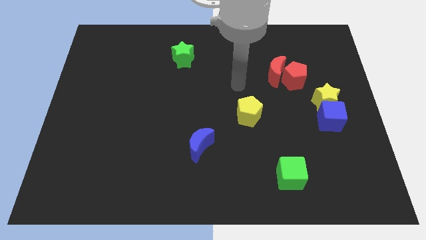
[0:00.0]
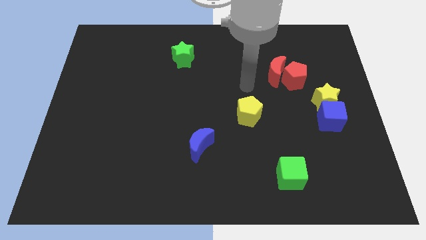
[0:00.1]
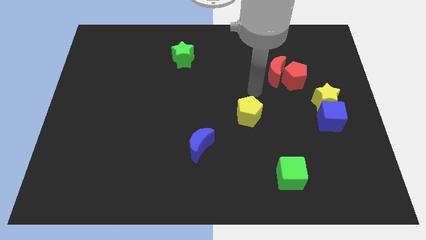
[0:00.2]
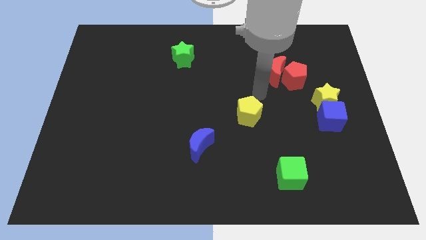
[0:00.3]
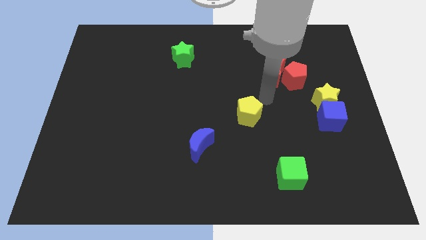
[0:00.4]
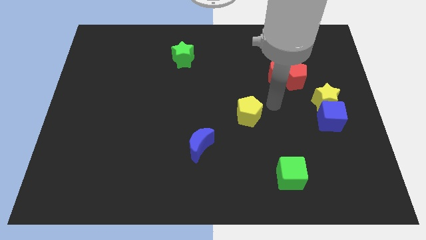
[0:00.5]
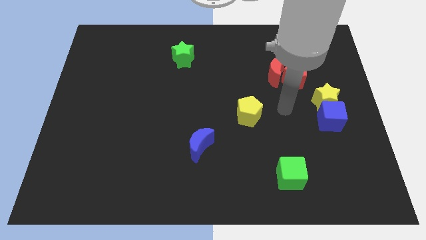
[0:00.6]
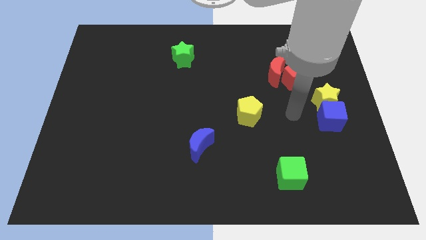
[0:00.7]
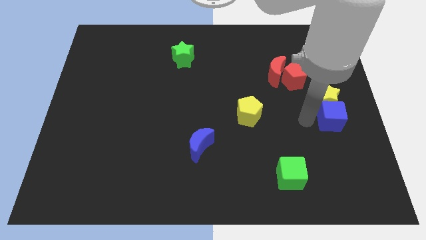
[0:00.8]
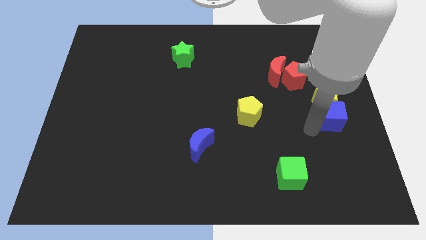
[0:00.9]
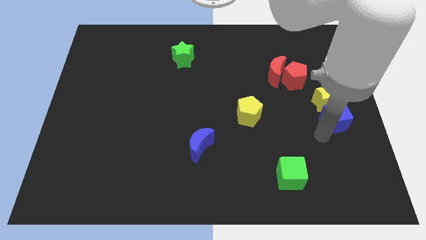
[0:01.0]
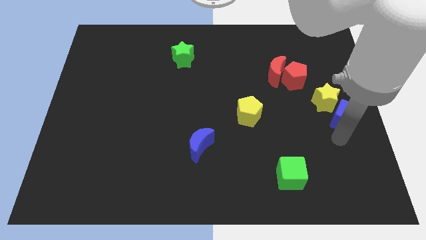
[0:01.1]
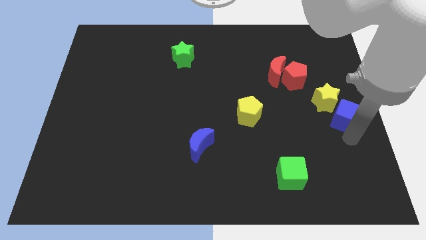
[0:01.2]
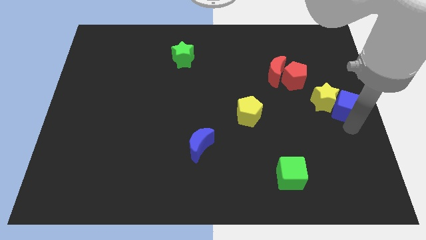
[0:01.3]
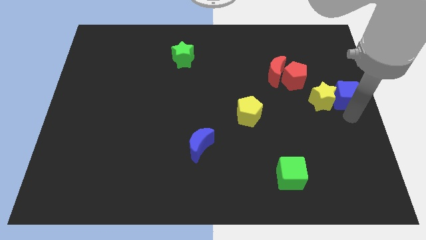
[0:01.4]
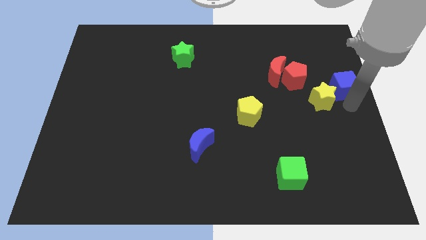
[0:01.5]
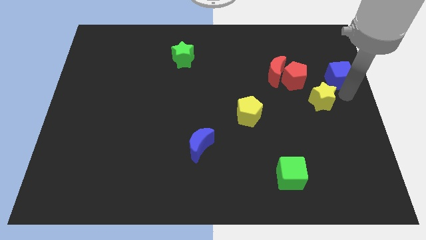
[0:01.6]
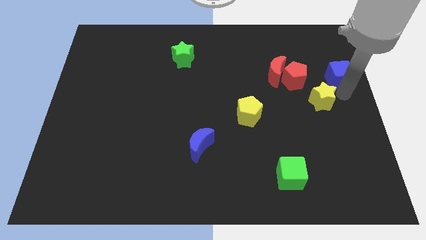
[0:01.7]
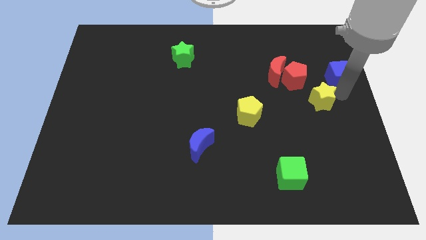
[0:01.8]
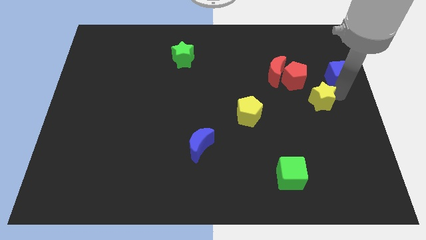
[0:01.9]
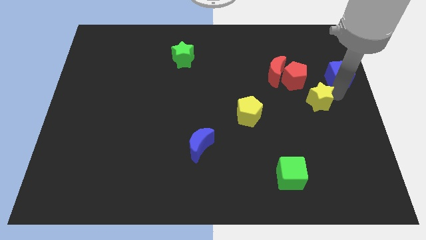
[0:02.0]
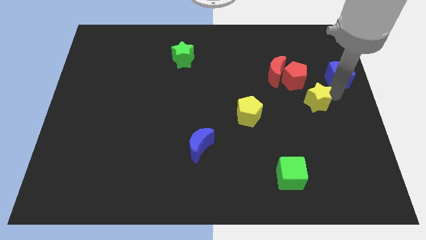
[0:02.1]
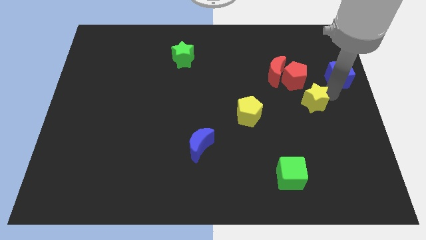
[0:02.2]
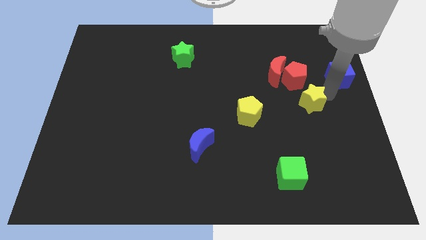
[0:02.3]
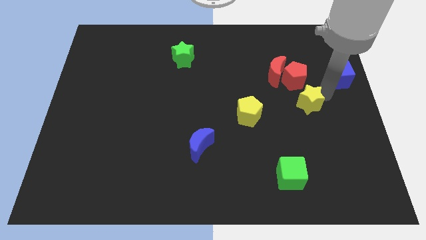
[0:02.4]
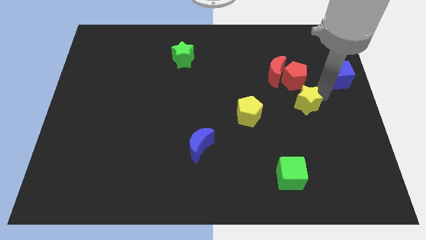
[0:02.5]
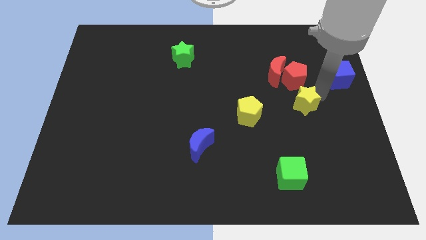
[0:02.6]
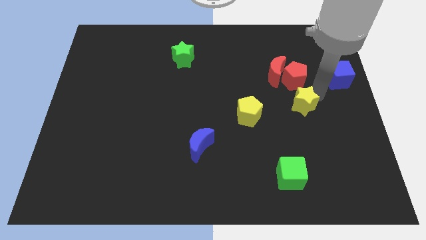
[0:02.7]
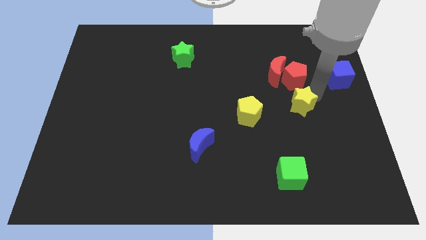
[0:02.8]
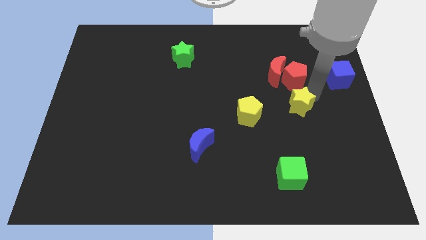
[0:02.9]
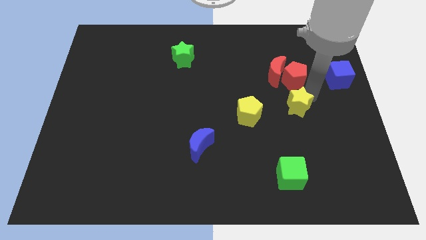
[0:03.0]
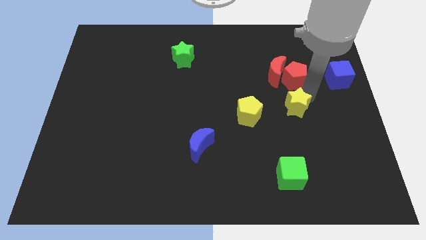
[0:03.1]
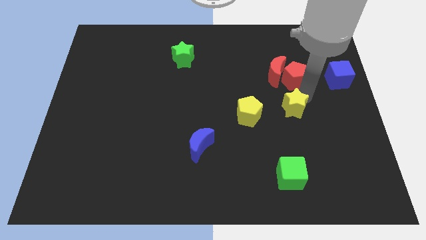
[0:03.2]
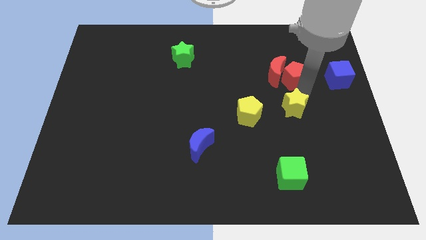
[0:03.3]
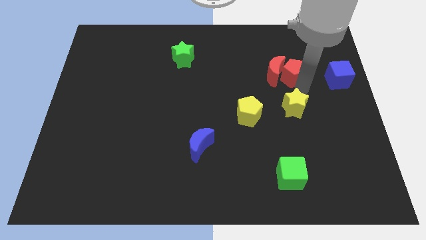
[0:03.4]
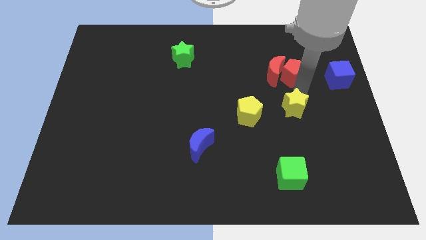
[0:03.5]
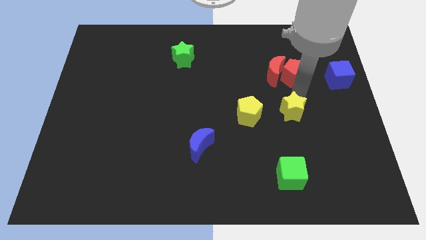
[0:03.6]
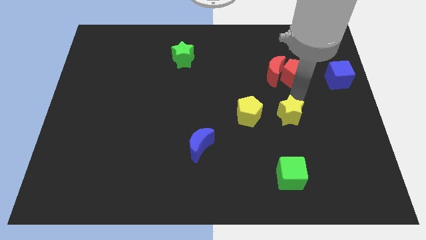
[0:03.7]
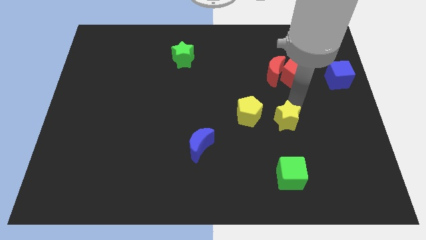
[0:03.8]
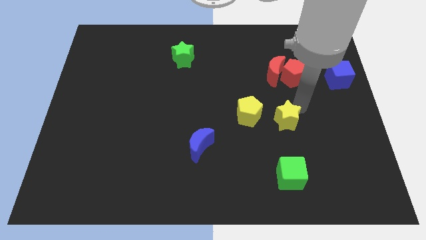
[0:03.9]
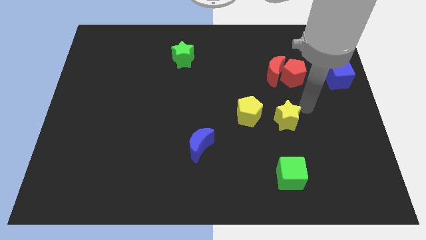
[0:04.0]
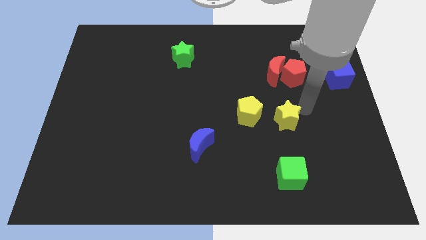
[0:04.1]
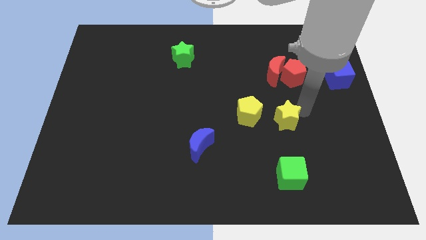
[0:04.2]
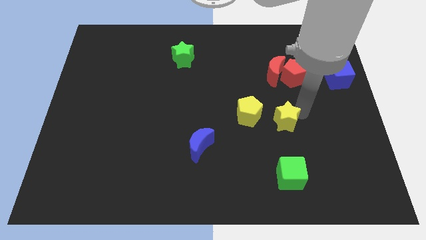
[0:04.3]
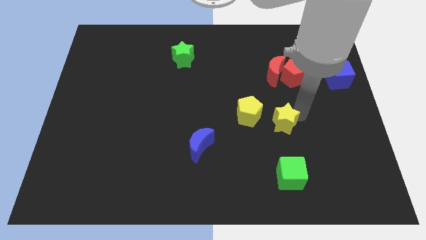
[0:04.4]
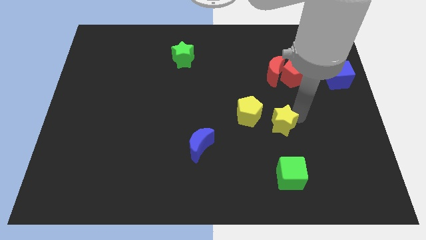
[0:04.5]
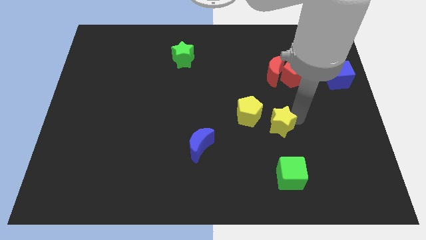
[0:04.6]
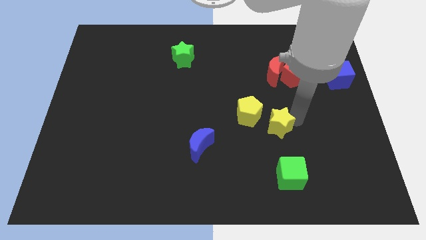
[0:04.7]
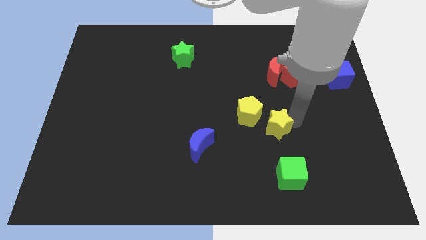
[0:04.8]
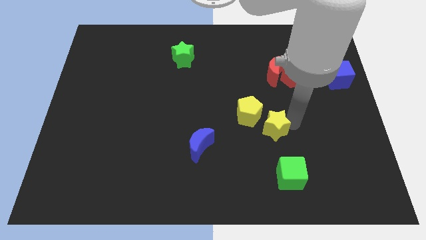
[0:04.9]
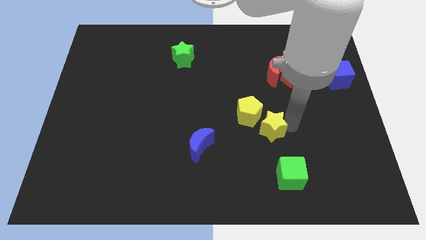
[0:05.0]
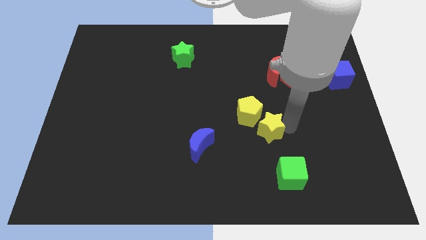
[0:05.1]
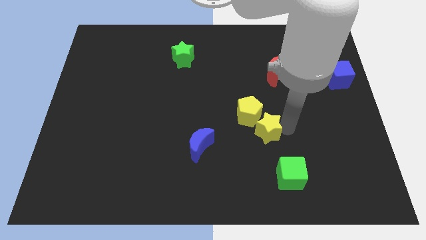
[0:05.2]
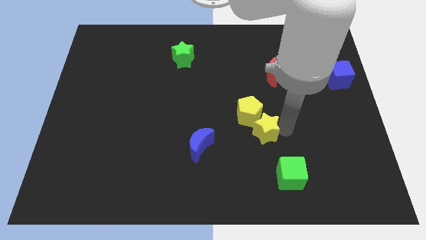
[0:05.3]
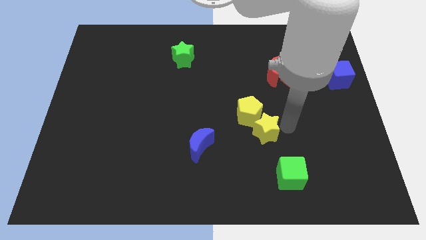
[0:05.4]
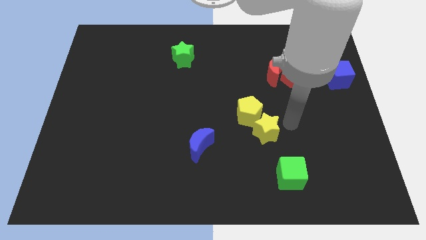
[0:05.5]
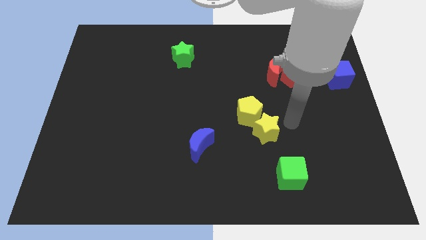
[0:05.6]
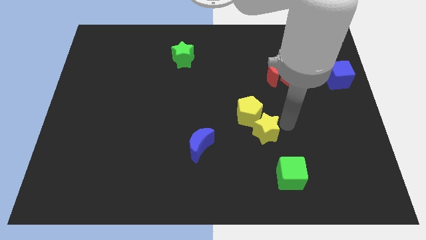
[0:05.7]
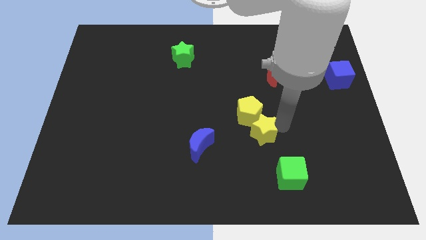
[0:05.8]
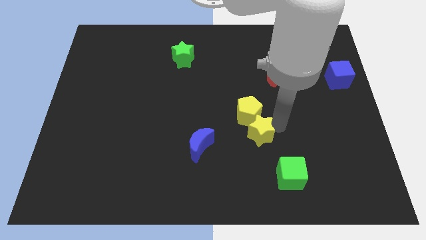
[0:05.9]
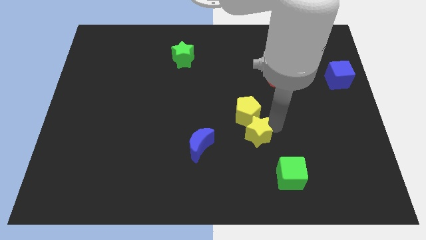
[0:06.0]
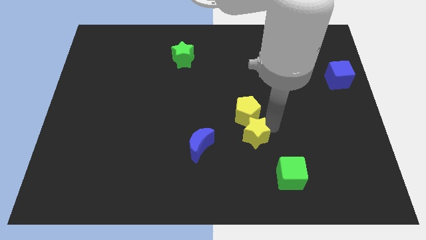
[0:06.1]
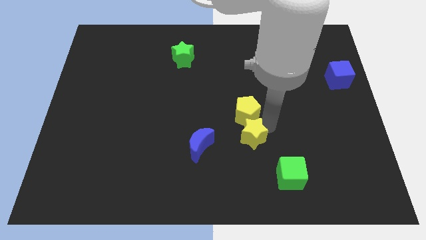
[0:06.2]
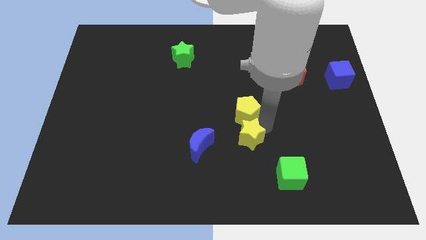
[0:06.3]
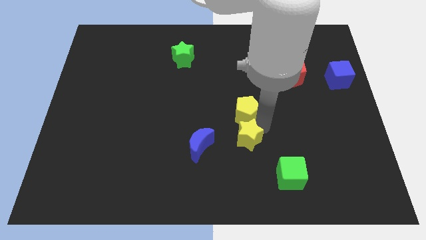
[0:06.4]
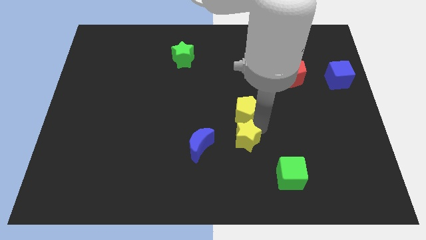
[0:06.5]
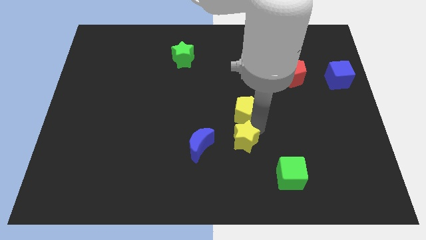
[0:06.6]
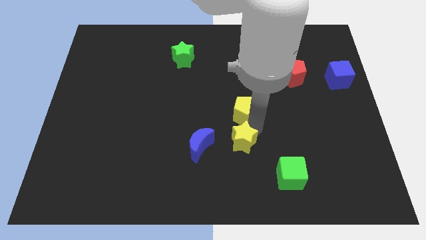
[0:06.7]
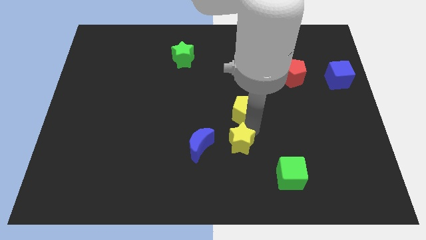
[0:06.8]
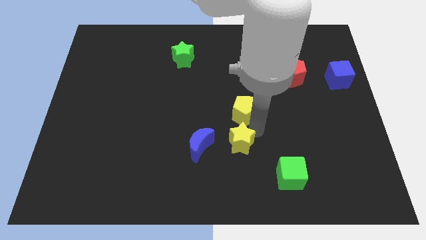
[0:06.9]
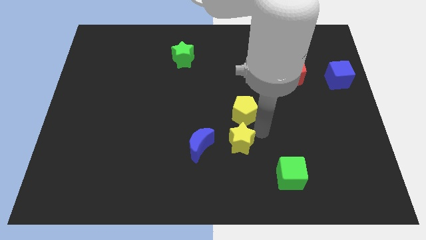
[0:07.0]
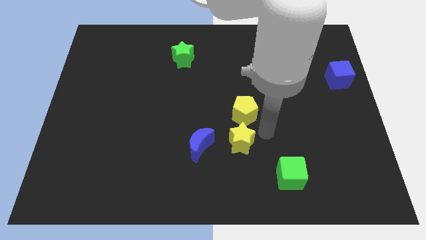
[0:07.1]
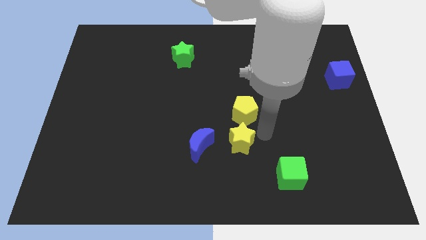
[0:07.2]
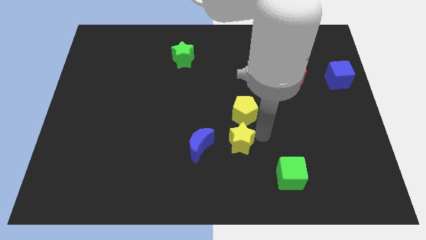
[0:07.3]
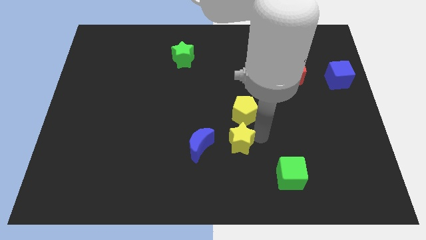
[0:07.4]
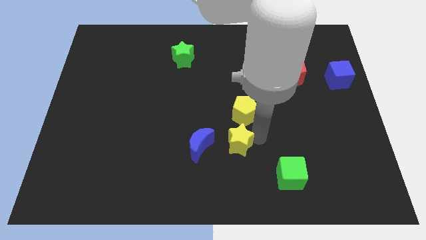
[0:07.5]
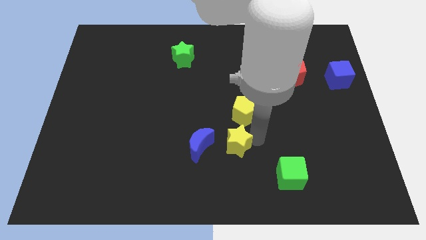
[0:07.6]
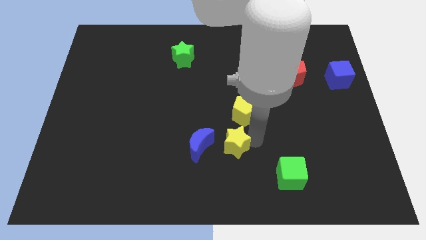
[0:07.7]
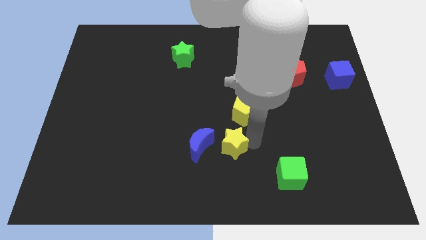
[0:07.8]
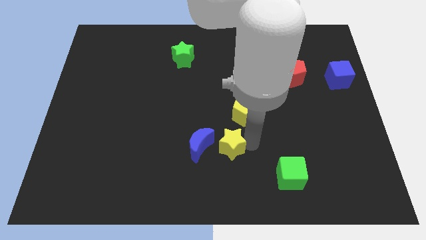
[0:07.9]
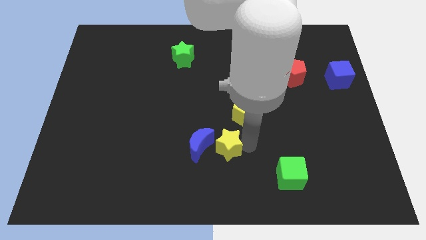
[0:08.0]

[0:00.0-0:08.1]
put the yellow star close to the blue moon
